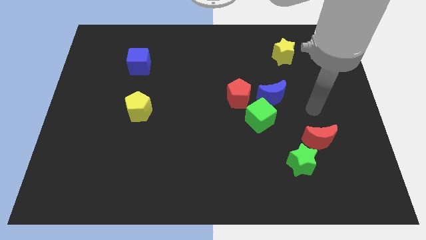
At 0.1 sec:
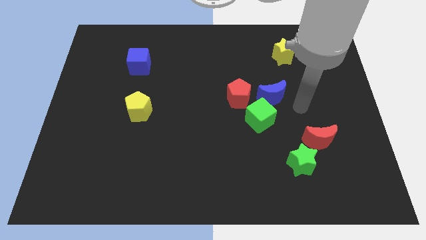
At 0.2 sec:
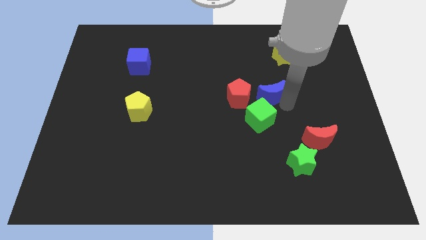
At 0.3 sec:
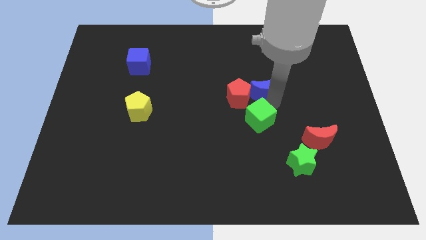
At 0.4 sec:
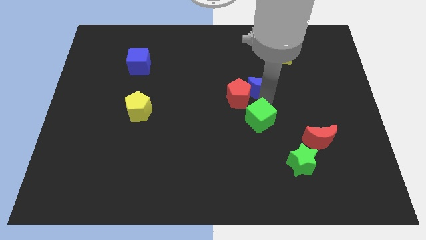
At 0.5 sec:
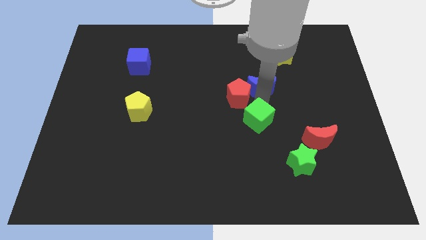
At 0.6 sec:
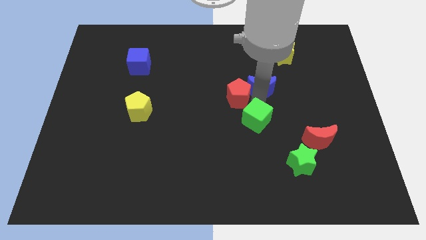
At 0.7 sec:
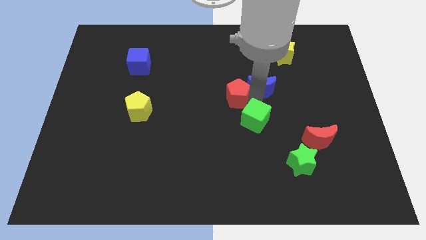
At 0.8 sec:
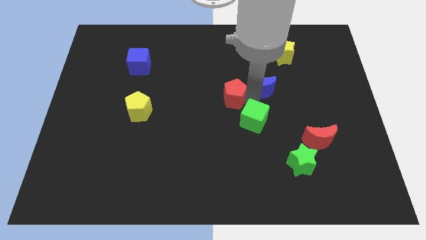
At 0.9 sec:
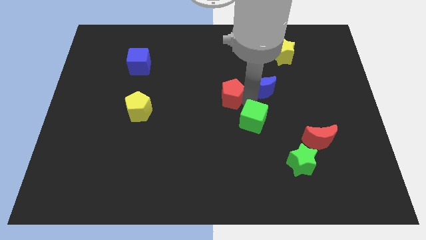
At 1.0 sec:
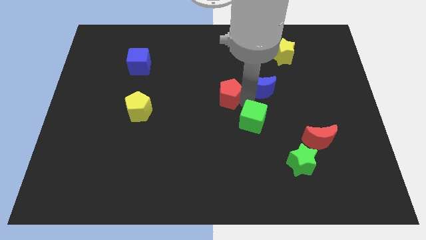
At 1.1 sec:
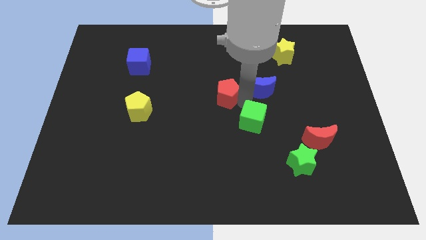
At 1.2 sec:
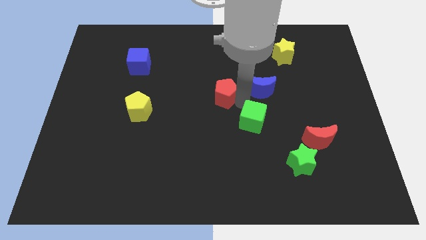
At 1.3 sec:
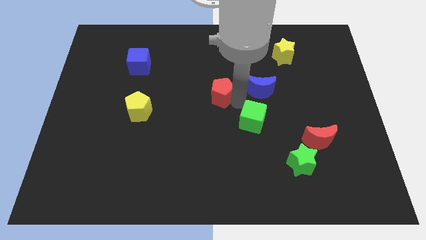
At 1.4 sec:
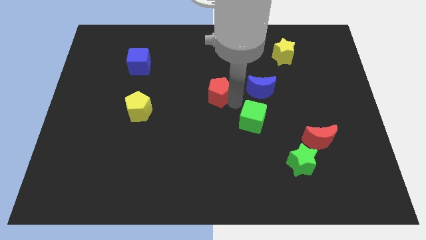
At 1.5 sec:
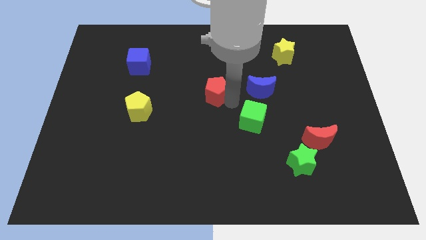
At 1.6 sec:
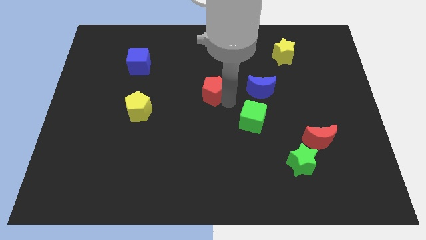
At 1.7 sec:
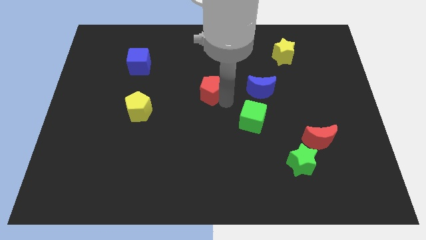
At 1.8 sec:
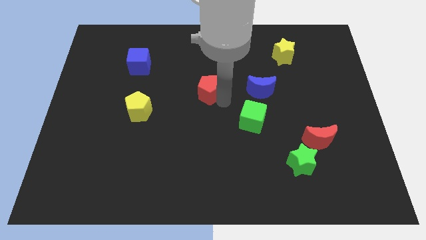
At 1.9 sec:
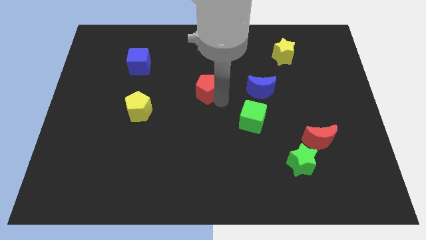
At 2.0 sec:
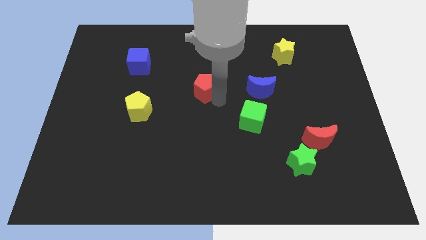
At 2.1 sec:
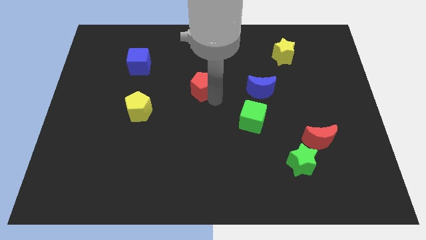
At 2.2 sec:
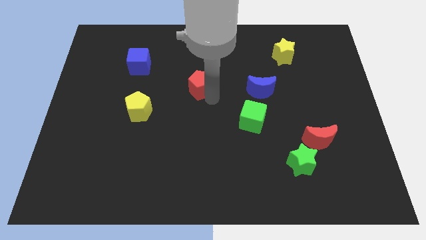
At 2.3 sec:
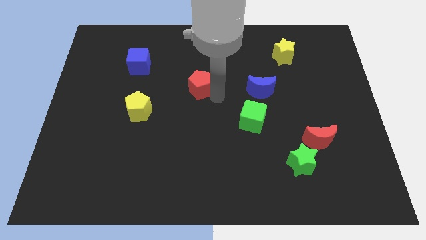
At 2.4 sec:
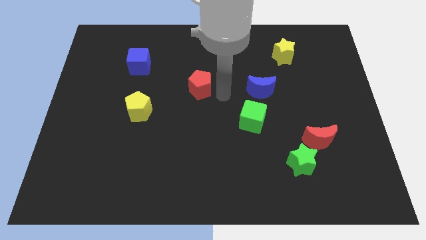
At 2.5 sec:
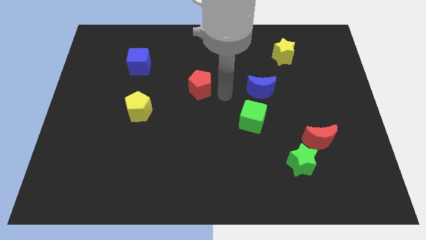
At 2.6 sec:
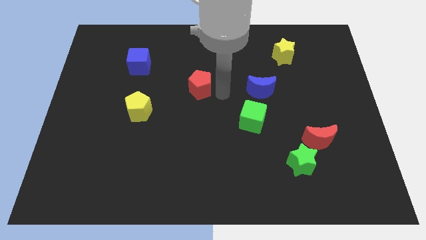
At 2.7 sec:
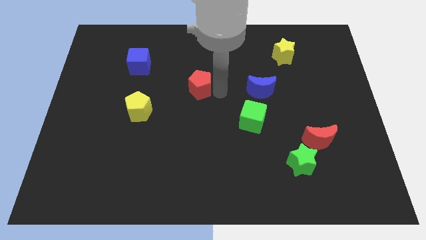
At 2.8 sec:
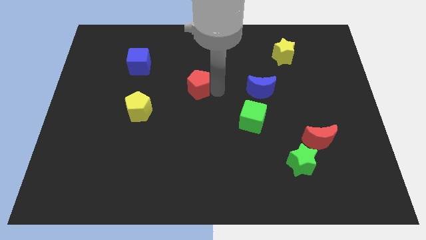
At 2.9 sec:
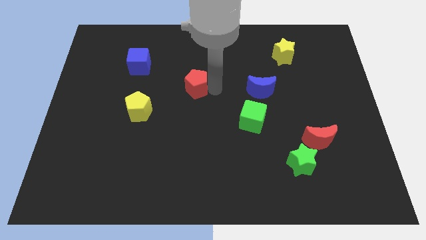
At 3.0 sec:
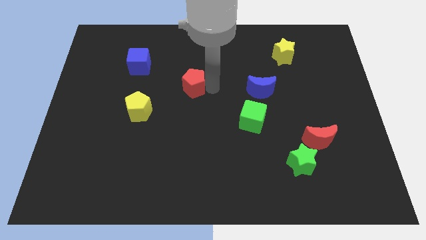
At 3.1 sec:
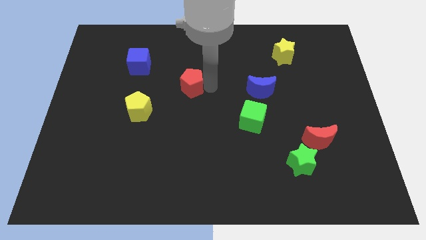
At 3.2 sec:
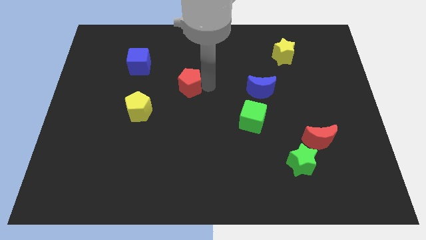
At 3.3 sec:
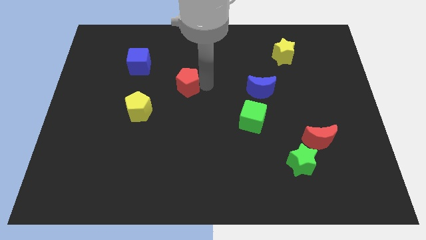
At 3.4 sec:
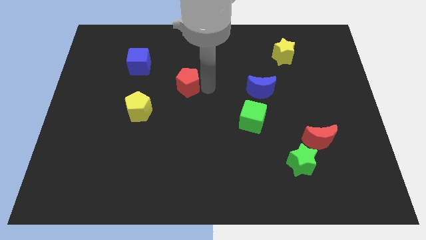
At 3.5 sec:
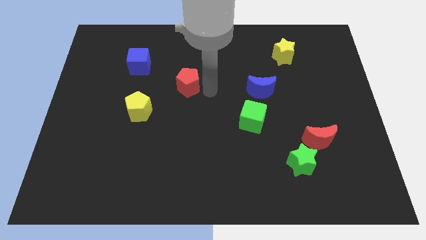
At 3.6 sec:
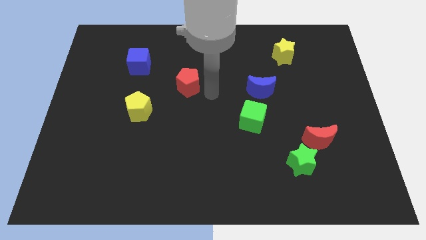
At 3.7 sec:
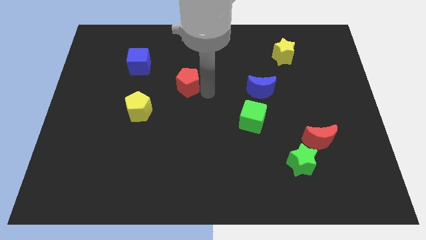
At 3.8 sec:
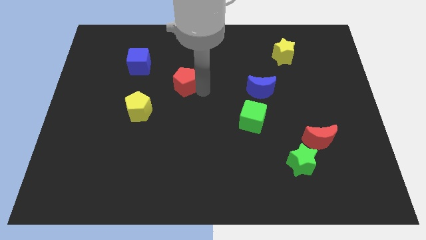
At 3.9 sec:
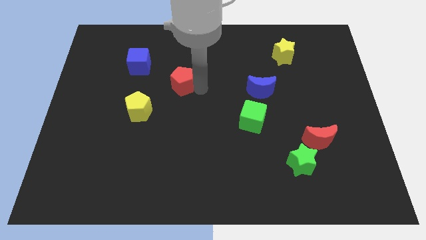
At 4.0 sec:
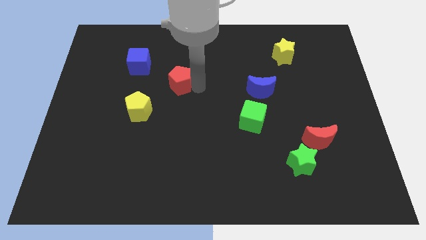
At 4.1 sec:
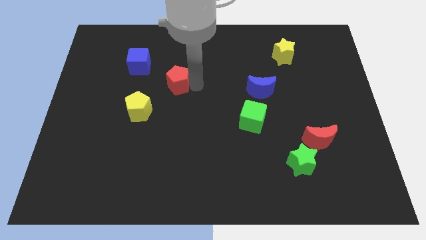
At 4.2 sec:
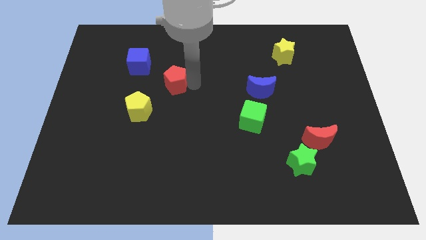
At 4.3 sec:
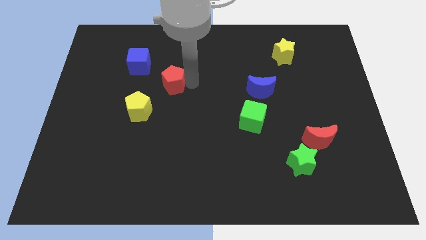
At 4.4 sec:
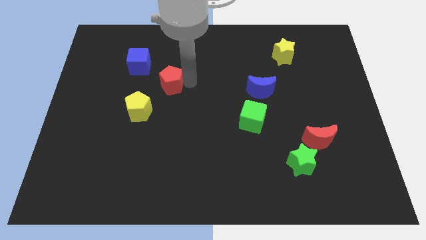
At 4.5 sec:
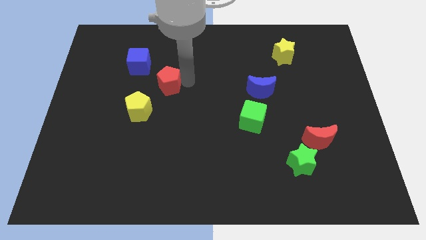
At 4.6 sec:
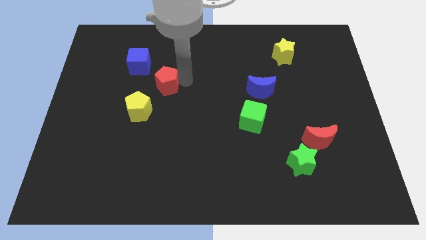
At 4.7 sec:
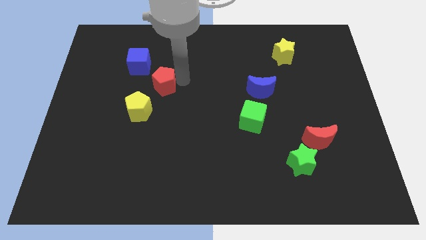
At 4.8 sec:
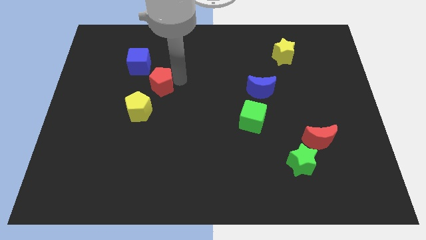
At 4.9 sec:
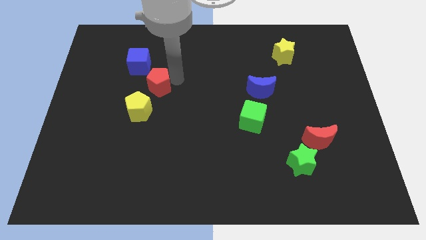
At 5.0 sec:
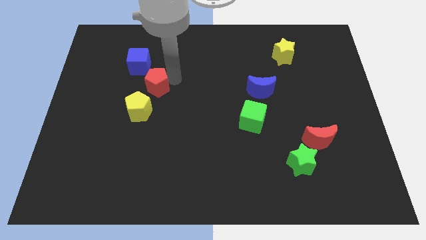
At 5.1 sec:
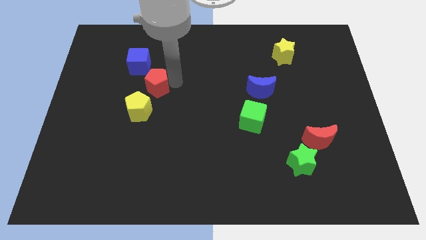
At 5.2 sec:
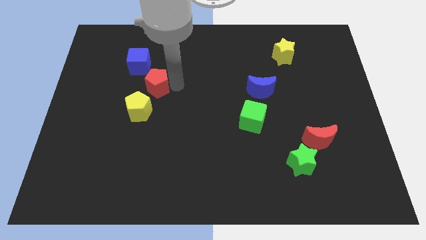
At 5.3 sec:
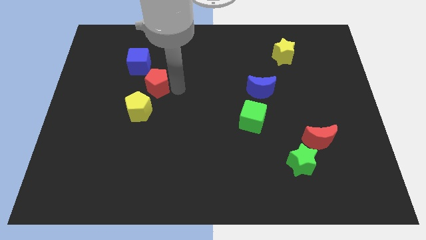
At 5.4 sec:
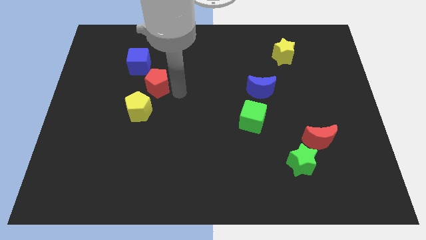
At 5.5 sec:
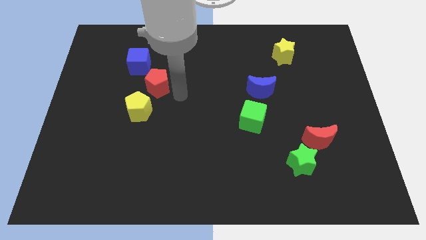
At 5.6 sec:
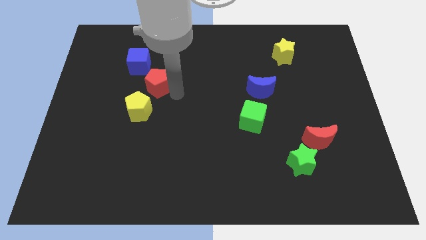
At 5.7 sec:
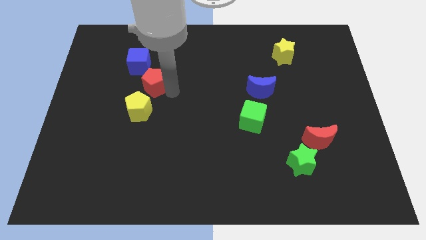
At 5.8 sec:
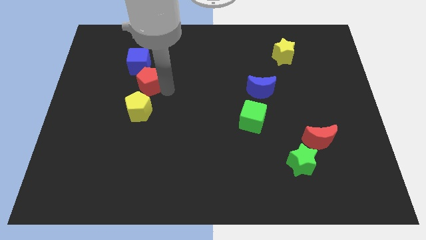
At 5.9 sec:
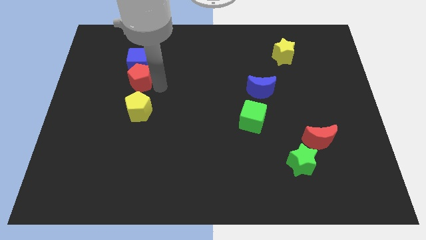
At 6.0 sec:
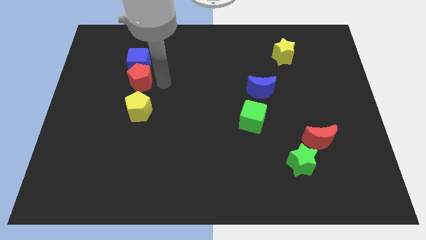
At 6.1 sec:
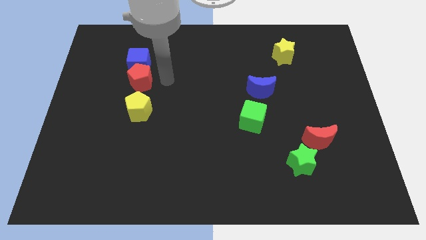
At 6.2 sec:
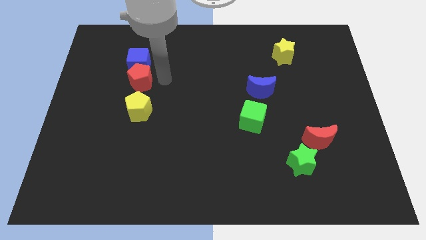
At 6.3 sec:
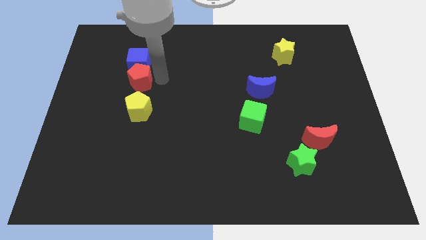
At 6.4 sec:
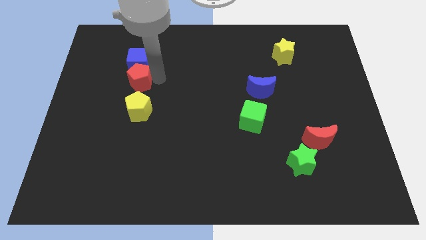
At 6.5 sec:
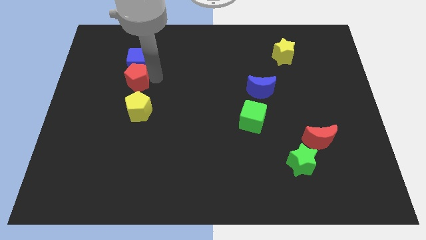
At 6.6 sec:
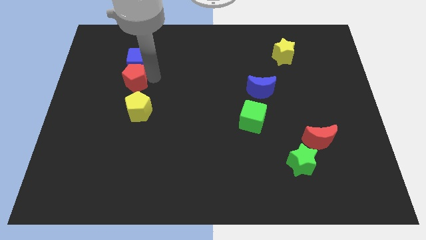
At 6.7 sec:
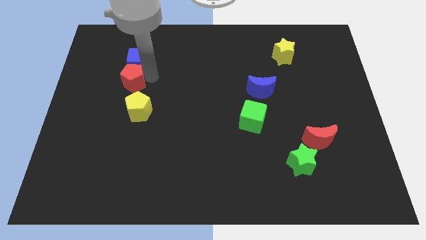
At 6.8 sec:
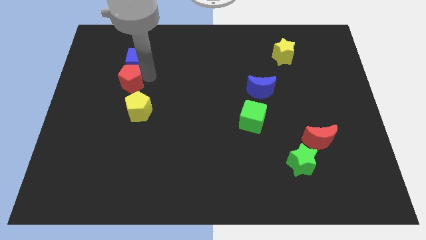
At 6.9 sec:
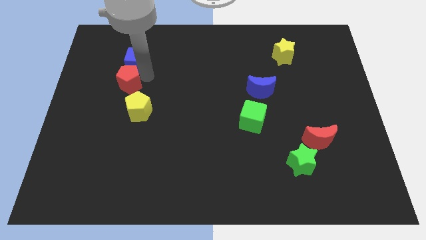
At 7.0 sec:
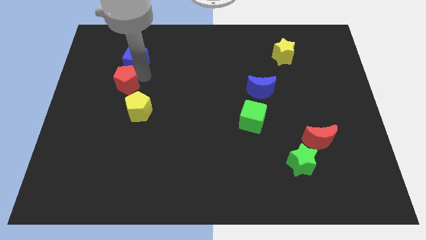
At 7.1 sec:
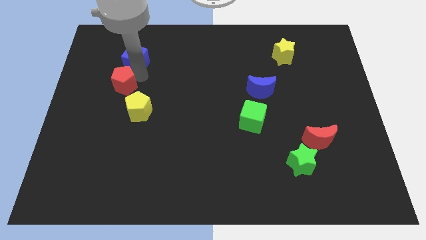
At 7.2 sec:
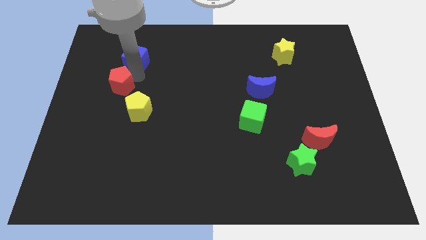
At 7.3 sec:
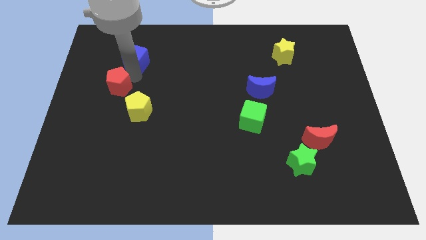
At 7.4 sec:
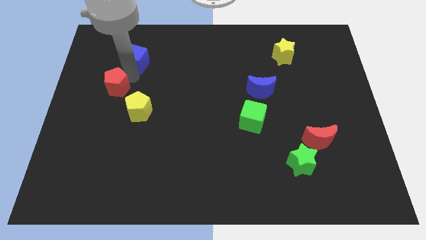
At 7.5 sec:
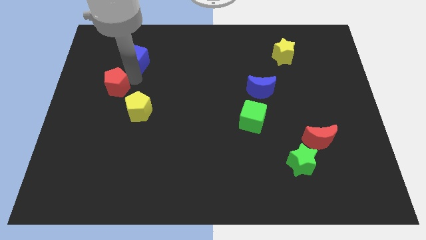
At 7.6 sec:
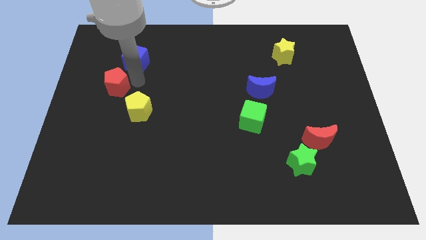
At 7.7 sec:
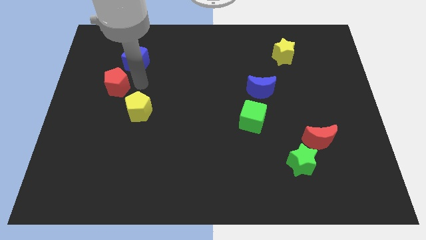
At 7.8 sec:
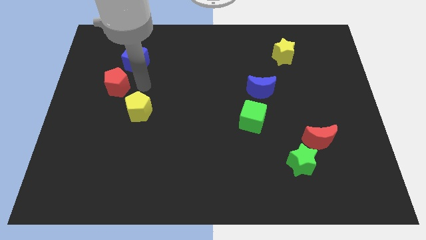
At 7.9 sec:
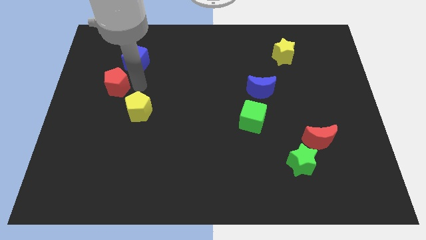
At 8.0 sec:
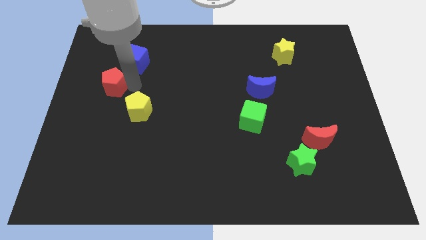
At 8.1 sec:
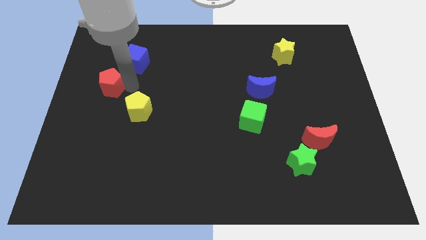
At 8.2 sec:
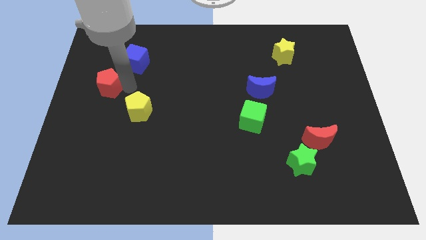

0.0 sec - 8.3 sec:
slide the red pentagon to the left side of the board
